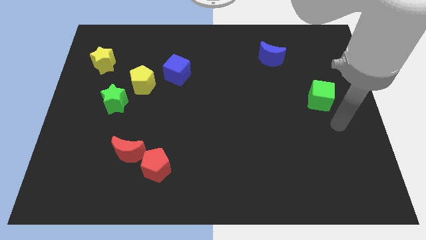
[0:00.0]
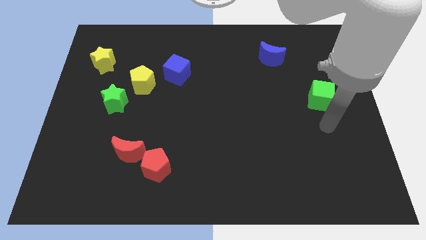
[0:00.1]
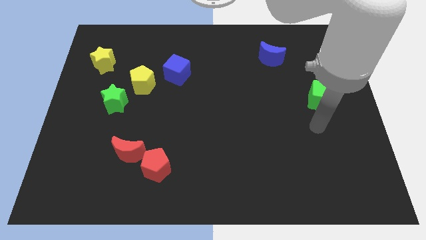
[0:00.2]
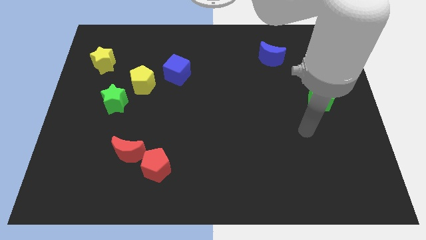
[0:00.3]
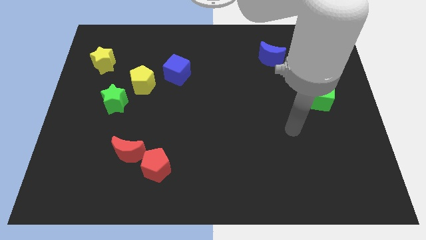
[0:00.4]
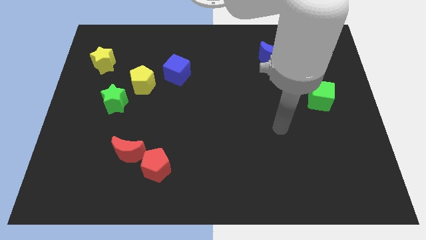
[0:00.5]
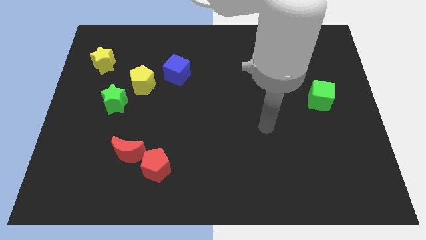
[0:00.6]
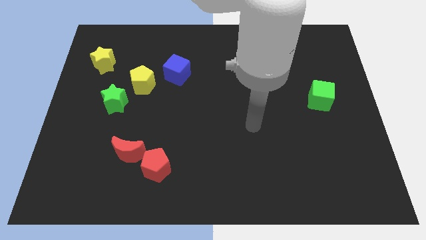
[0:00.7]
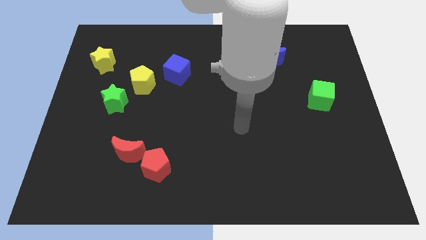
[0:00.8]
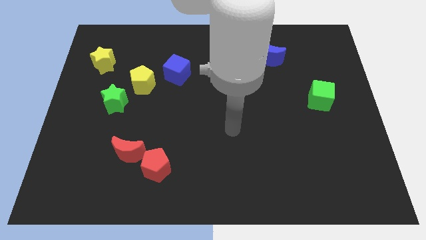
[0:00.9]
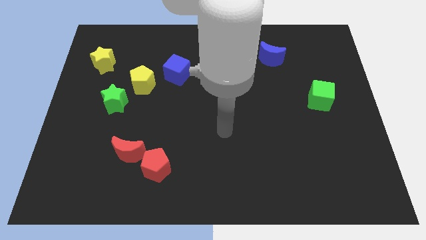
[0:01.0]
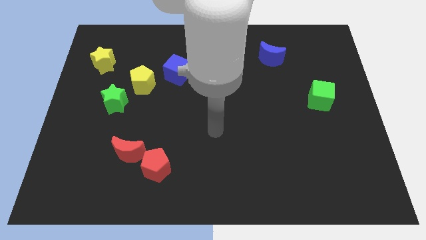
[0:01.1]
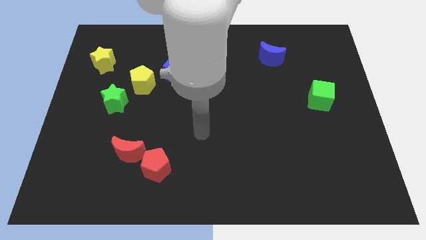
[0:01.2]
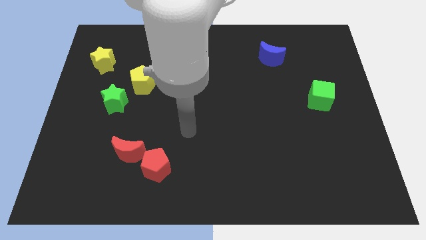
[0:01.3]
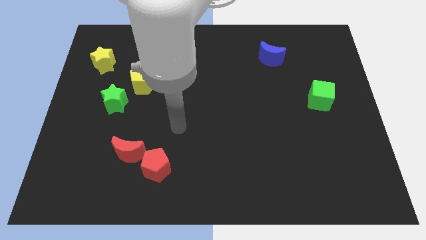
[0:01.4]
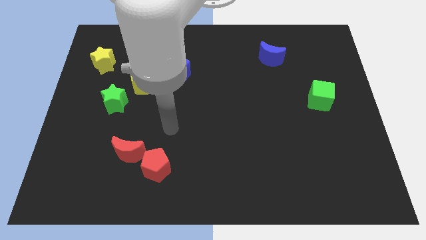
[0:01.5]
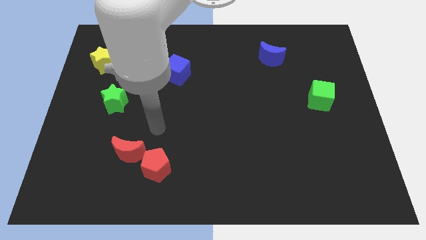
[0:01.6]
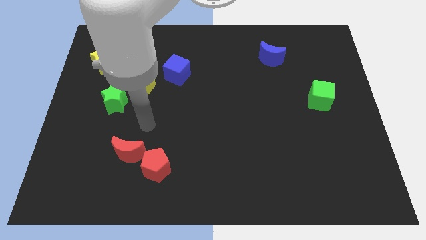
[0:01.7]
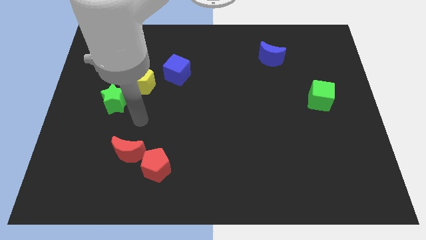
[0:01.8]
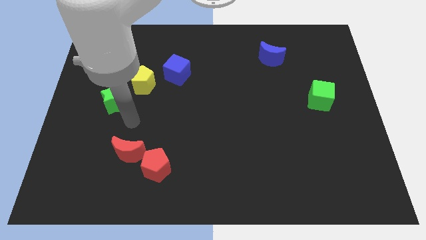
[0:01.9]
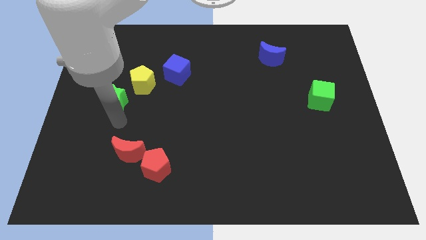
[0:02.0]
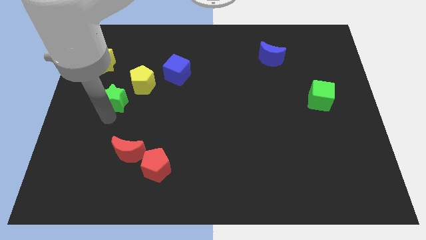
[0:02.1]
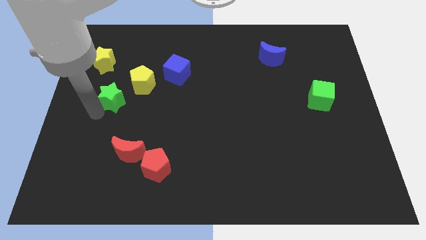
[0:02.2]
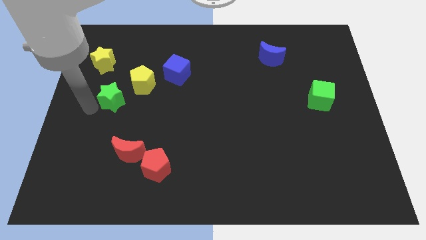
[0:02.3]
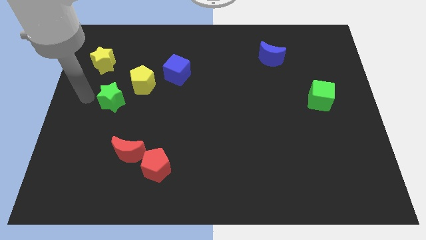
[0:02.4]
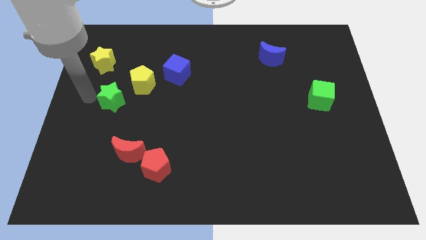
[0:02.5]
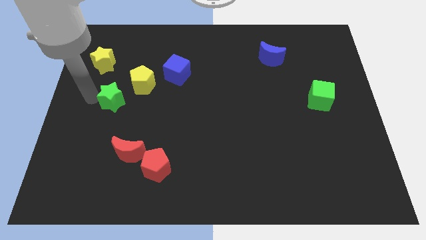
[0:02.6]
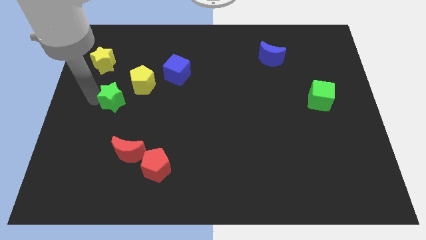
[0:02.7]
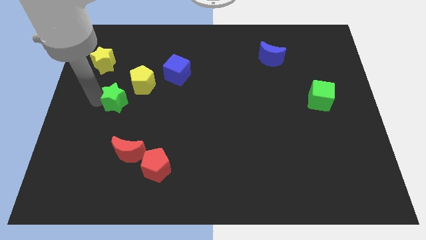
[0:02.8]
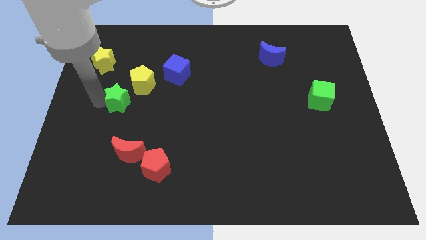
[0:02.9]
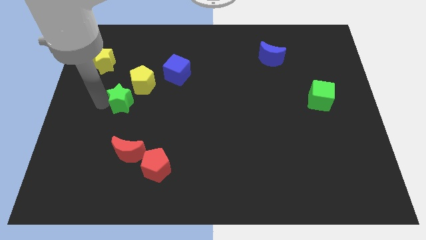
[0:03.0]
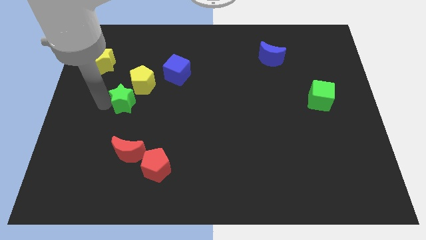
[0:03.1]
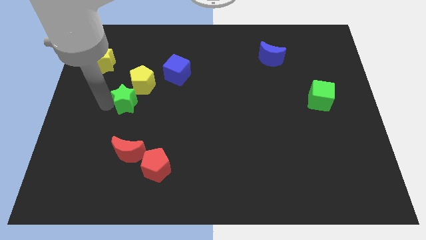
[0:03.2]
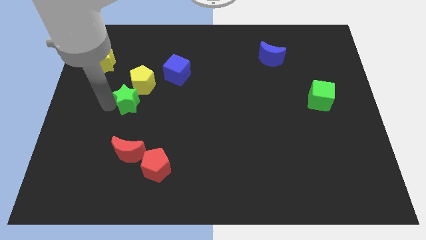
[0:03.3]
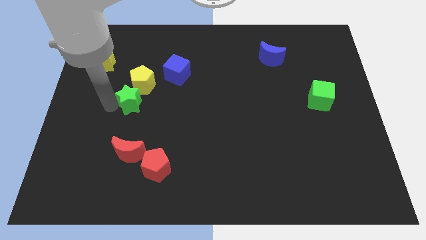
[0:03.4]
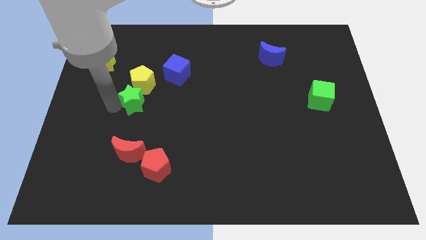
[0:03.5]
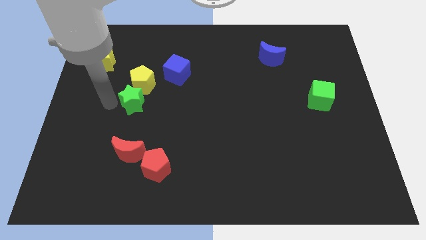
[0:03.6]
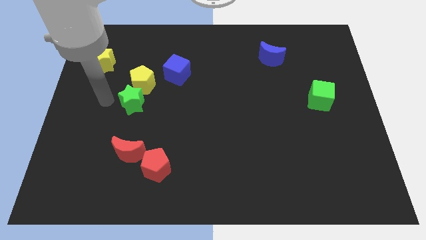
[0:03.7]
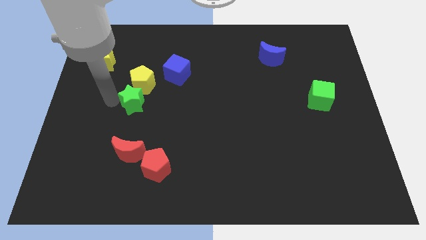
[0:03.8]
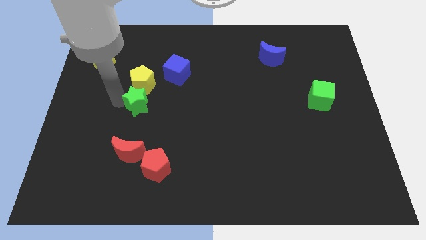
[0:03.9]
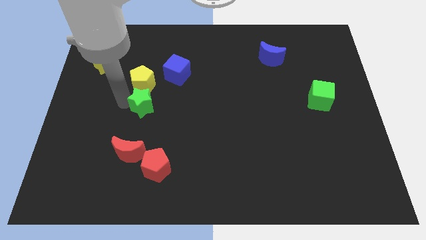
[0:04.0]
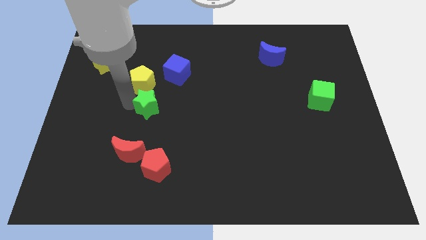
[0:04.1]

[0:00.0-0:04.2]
slightly push the green star right

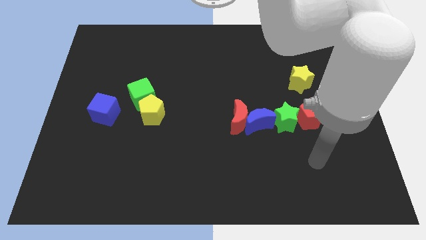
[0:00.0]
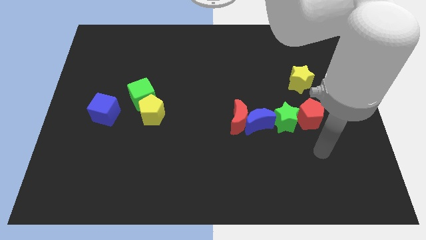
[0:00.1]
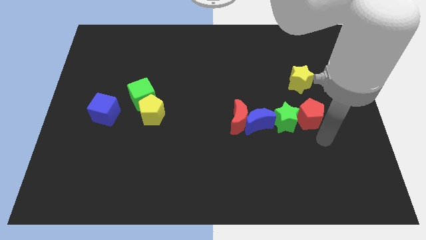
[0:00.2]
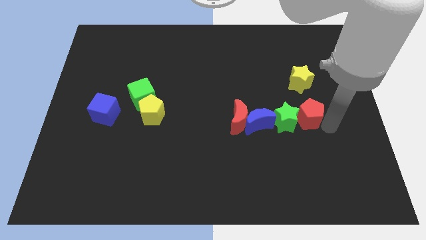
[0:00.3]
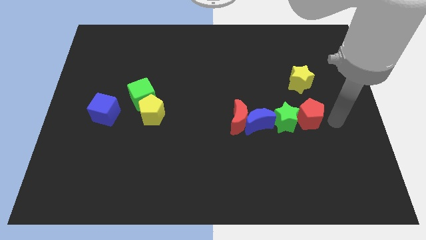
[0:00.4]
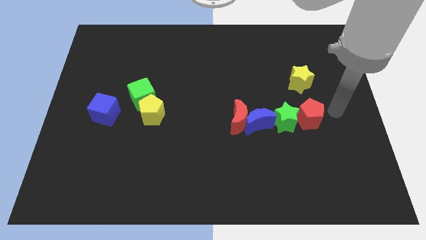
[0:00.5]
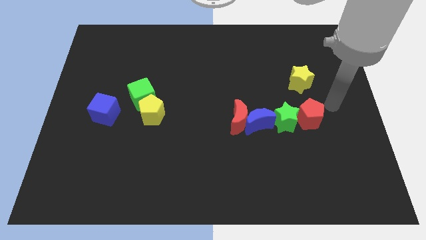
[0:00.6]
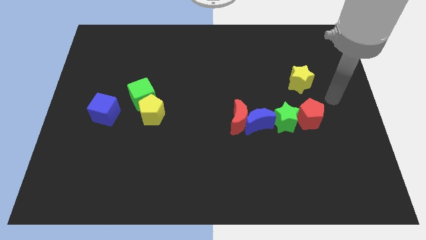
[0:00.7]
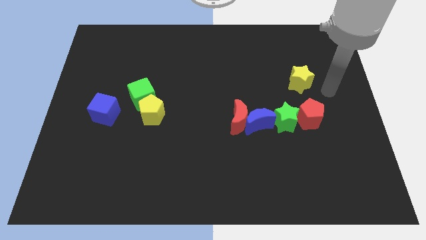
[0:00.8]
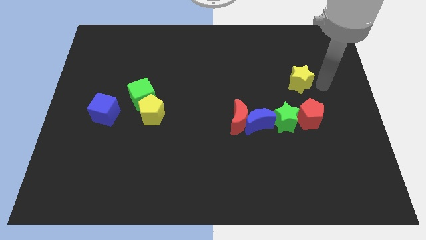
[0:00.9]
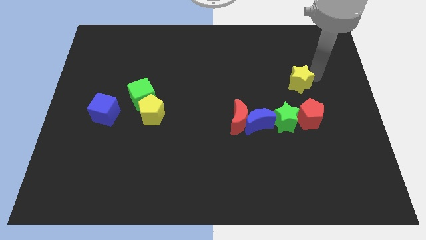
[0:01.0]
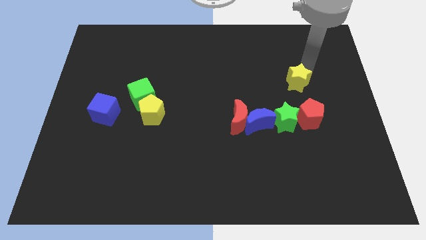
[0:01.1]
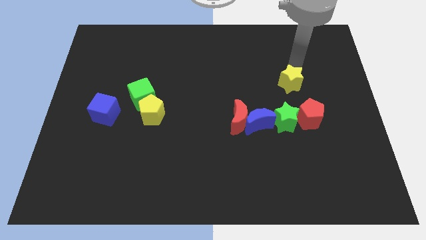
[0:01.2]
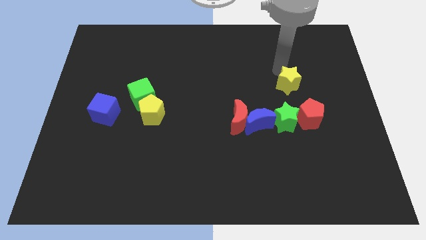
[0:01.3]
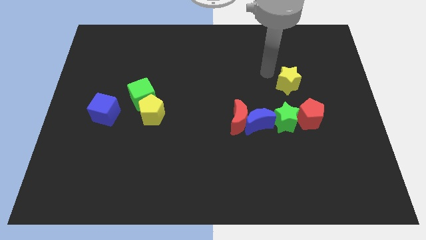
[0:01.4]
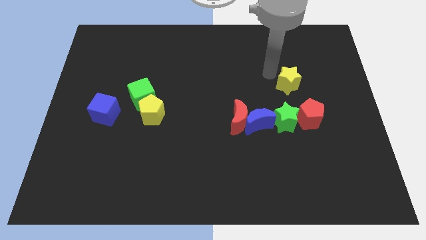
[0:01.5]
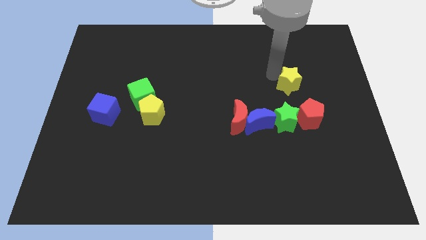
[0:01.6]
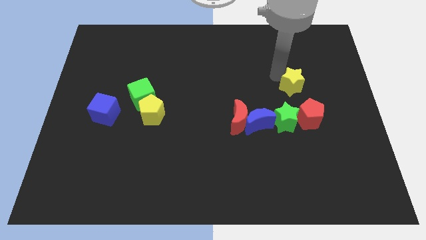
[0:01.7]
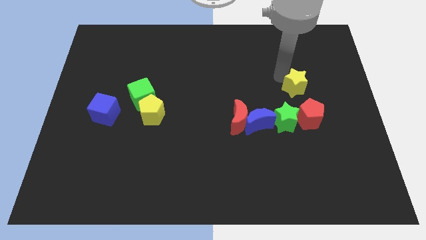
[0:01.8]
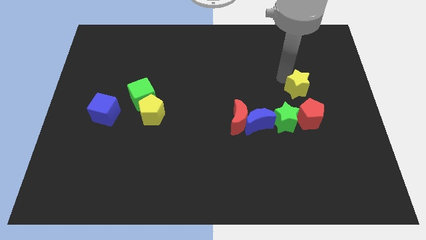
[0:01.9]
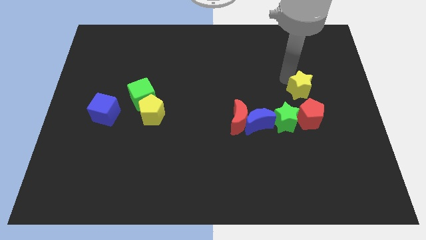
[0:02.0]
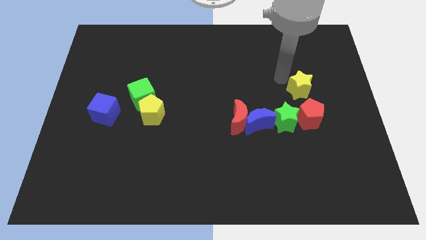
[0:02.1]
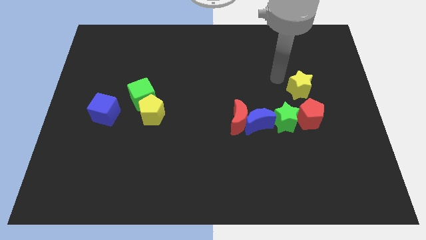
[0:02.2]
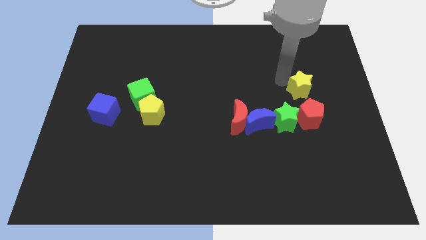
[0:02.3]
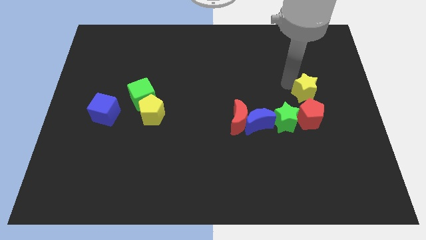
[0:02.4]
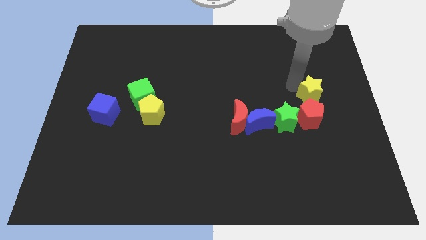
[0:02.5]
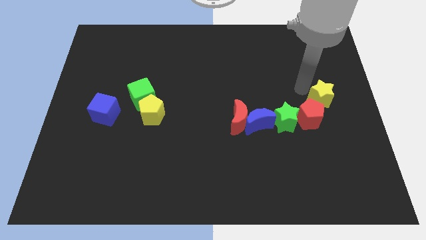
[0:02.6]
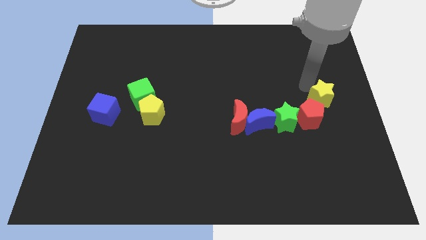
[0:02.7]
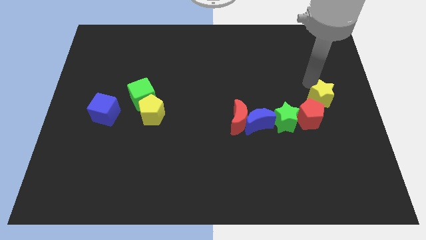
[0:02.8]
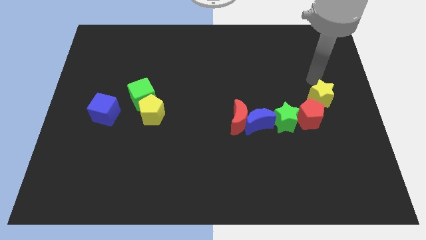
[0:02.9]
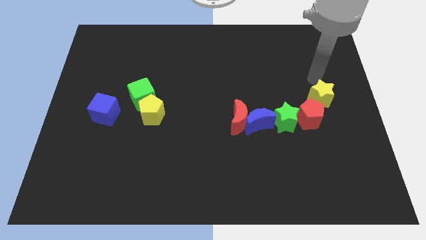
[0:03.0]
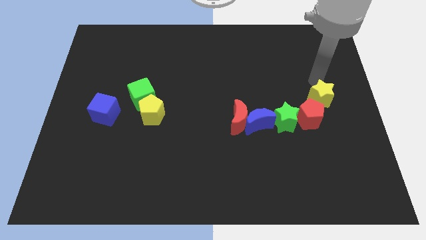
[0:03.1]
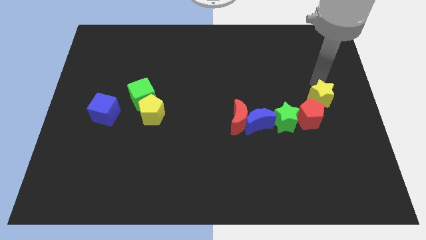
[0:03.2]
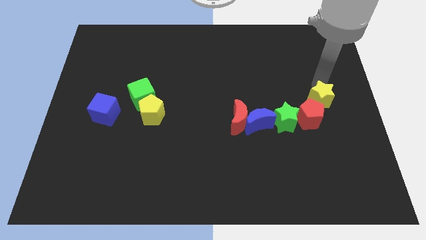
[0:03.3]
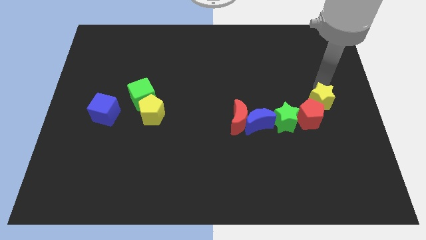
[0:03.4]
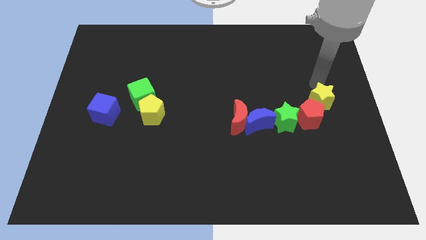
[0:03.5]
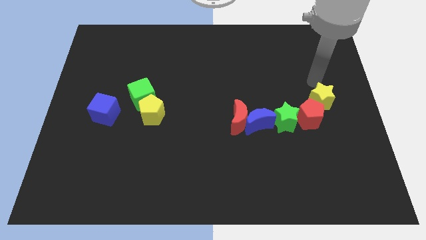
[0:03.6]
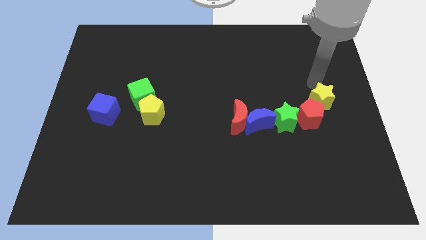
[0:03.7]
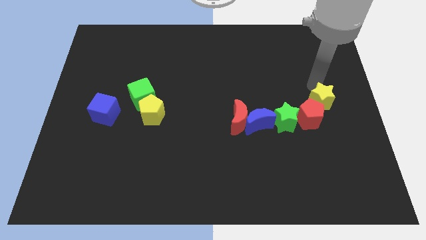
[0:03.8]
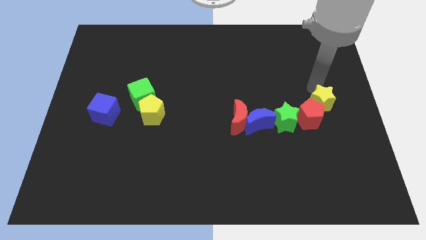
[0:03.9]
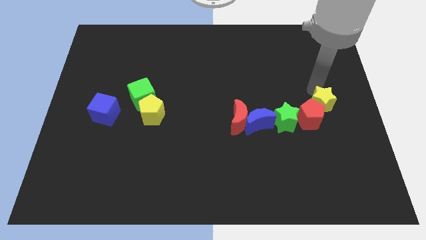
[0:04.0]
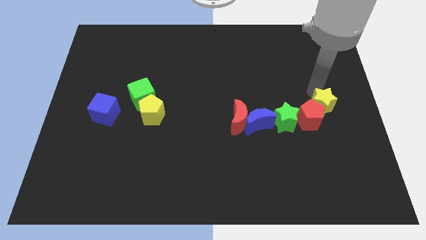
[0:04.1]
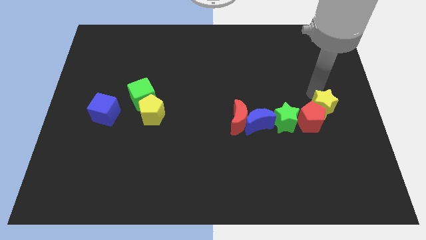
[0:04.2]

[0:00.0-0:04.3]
slightly move the yellow star down
